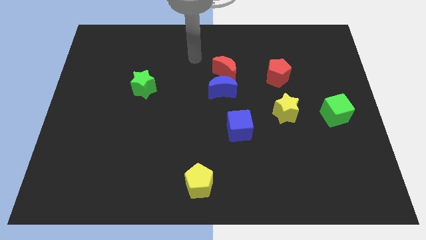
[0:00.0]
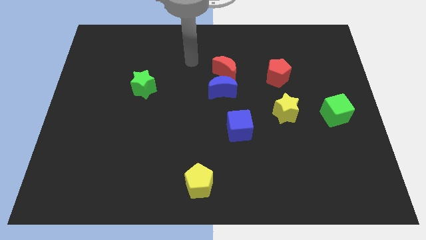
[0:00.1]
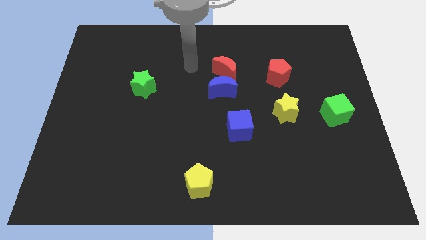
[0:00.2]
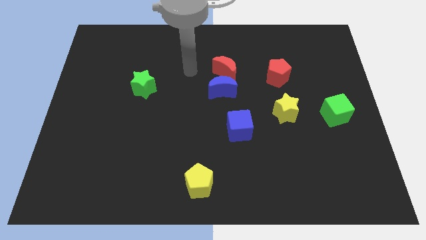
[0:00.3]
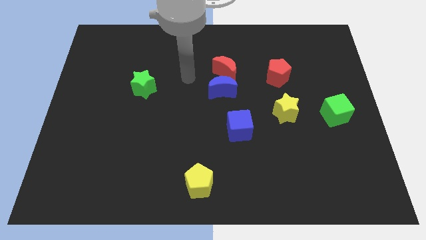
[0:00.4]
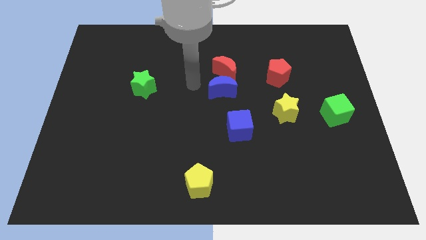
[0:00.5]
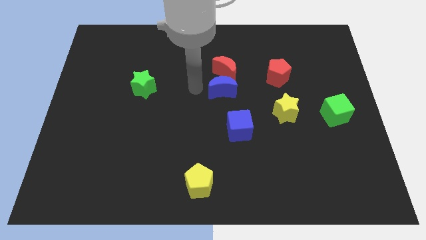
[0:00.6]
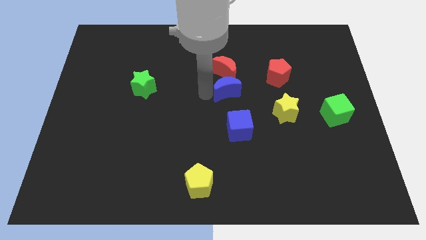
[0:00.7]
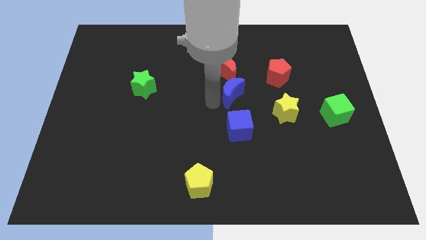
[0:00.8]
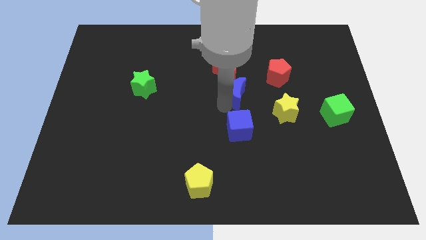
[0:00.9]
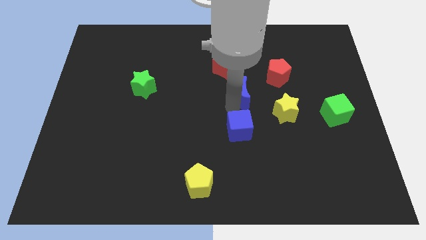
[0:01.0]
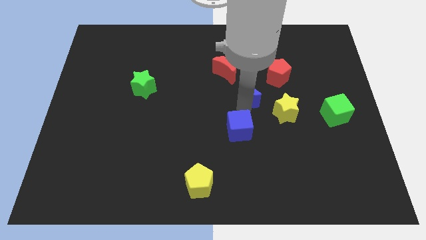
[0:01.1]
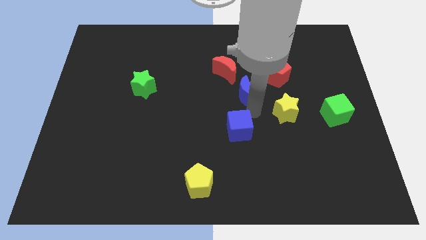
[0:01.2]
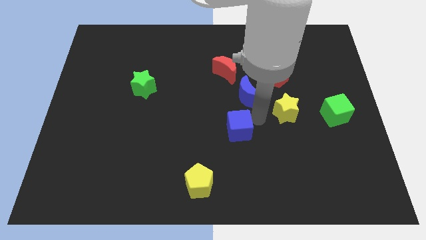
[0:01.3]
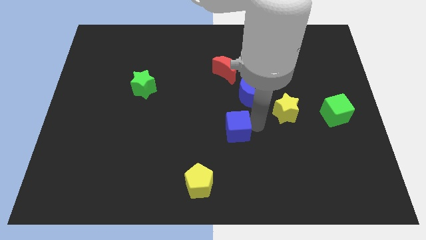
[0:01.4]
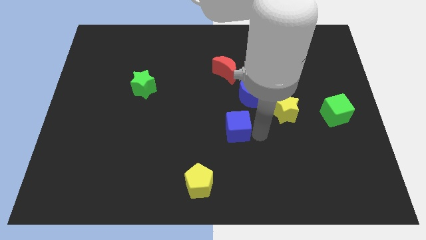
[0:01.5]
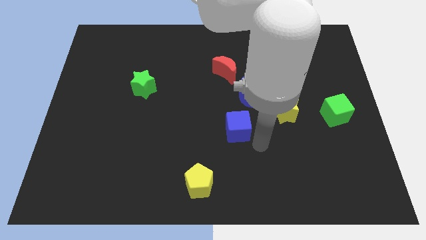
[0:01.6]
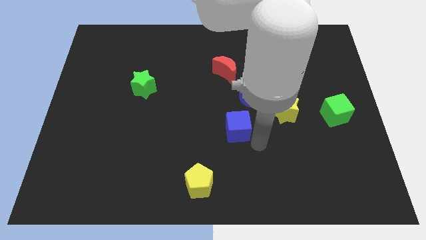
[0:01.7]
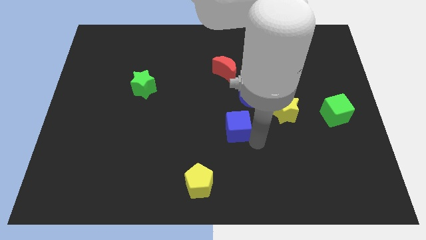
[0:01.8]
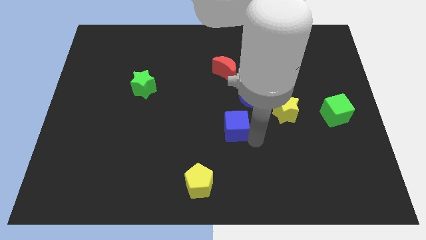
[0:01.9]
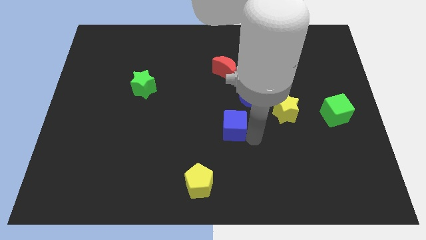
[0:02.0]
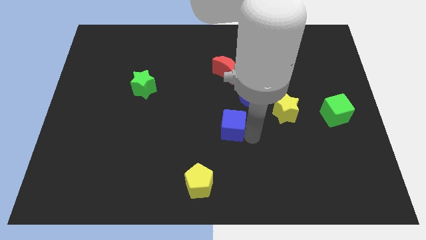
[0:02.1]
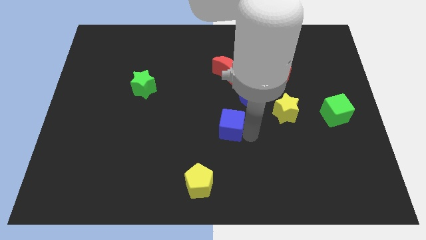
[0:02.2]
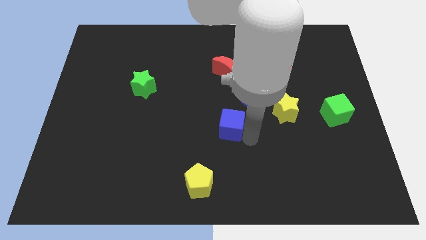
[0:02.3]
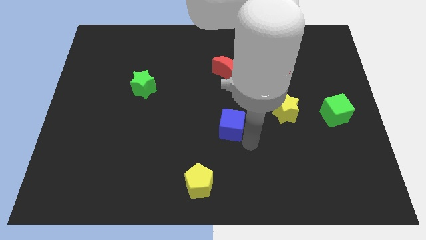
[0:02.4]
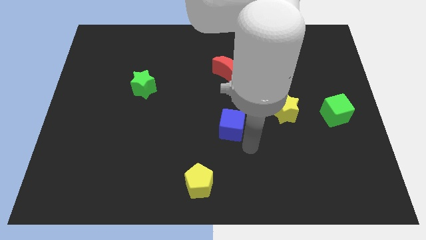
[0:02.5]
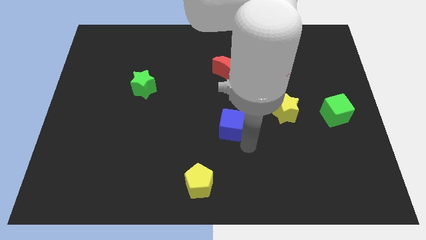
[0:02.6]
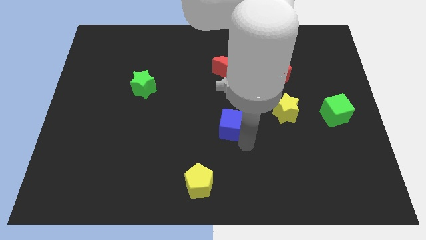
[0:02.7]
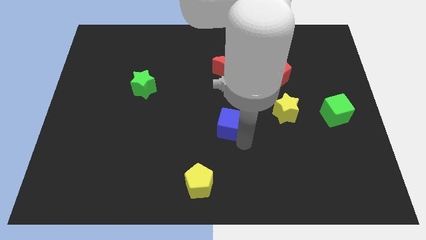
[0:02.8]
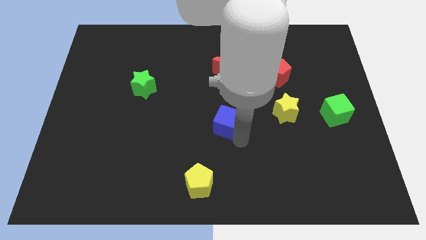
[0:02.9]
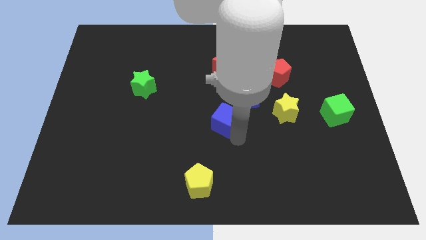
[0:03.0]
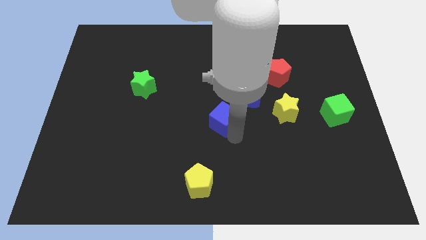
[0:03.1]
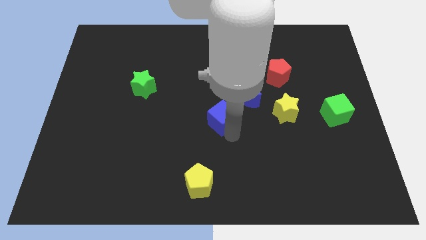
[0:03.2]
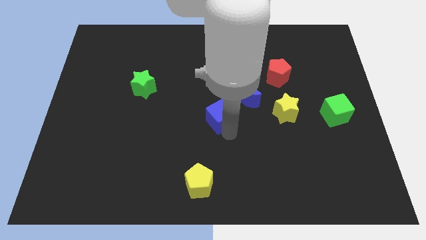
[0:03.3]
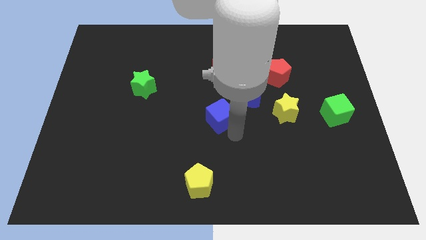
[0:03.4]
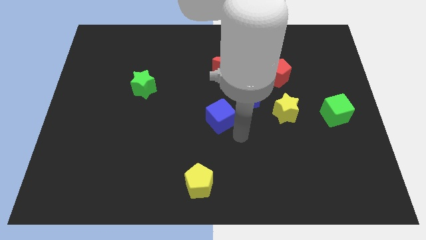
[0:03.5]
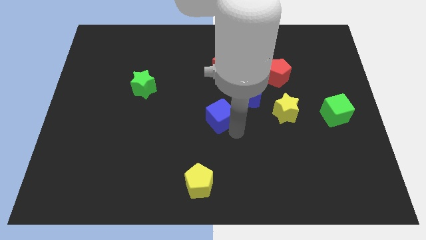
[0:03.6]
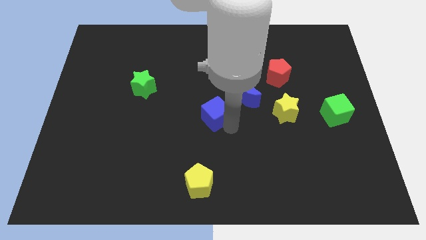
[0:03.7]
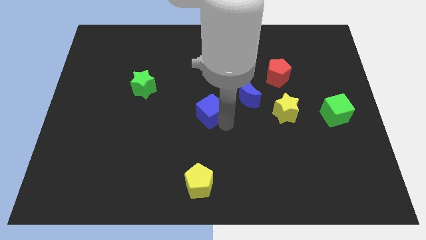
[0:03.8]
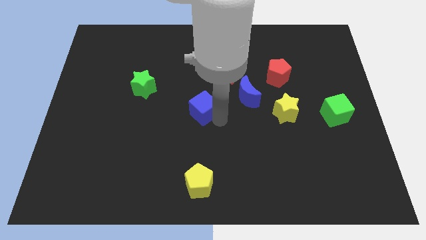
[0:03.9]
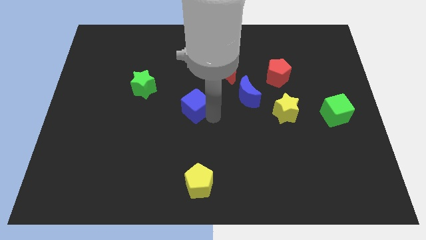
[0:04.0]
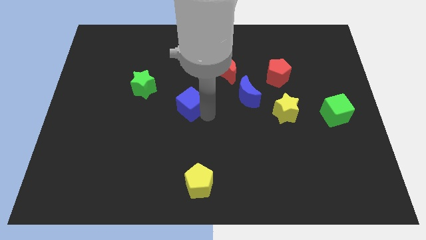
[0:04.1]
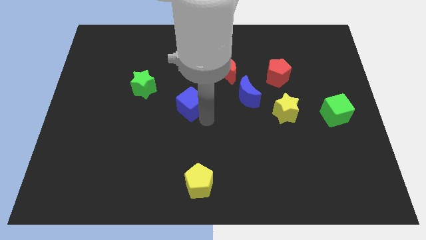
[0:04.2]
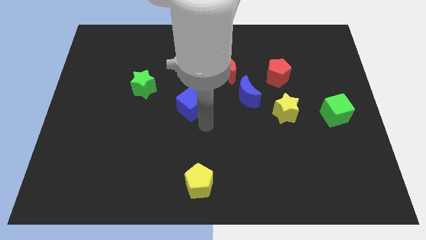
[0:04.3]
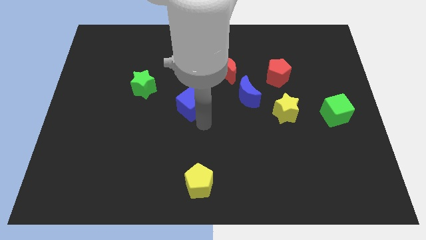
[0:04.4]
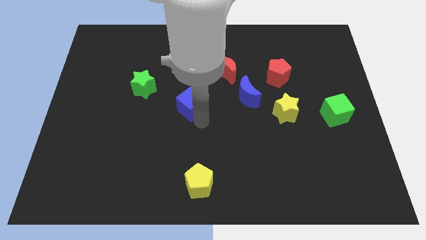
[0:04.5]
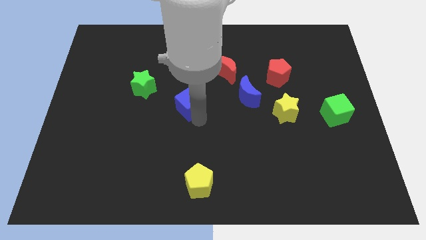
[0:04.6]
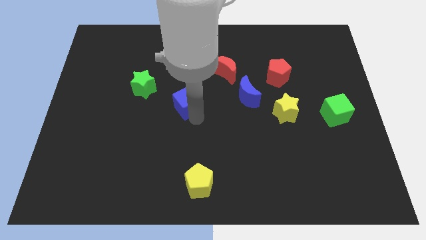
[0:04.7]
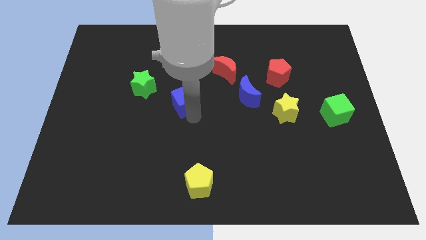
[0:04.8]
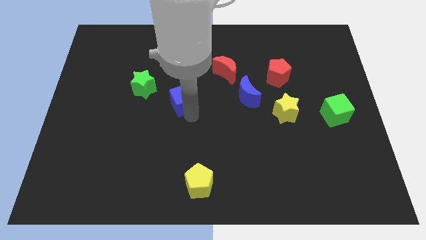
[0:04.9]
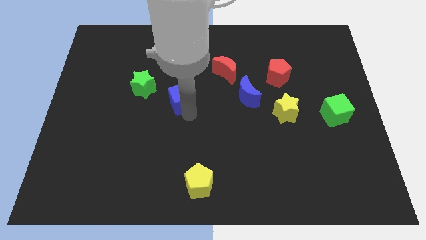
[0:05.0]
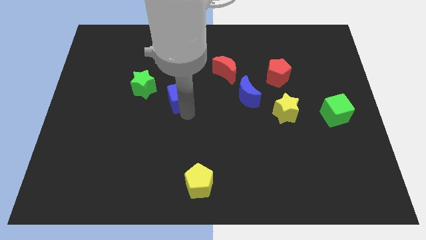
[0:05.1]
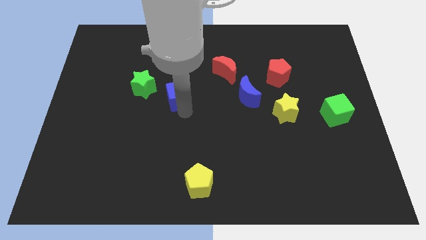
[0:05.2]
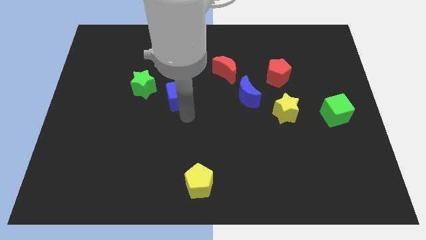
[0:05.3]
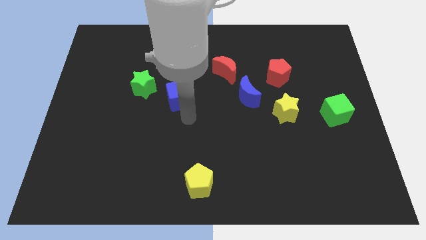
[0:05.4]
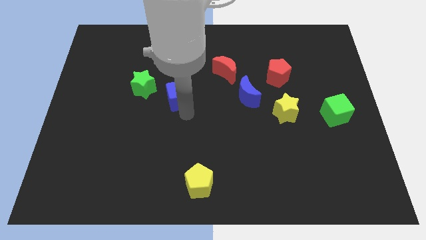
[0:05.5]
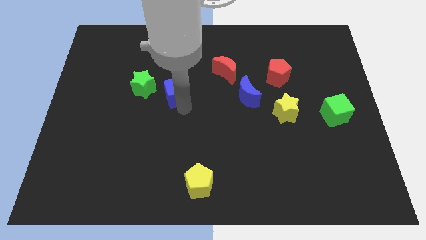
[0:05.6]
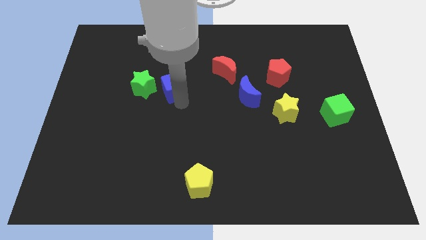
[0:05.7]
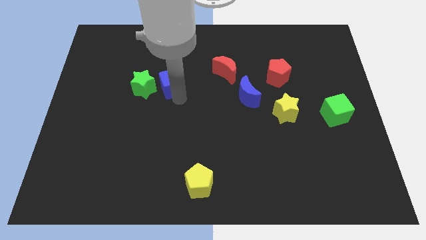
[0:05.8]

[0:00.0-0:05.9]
move the blue cube diagonally up and to the left

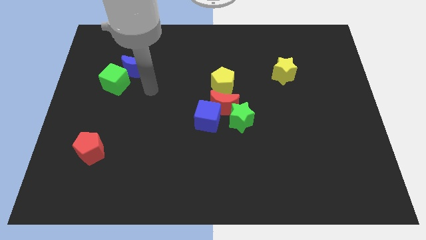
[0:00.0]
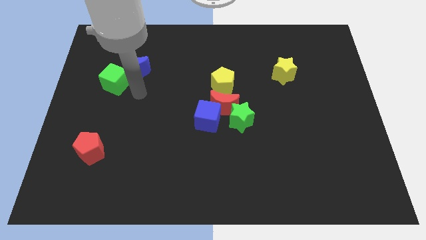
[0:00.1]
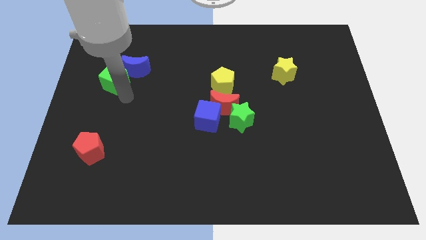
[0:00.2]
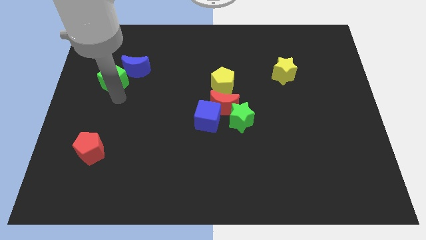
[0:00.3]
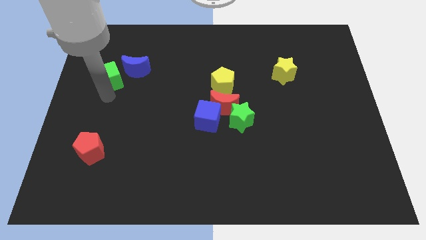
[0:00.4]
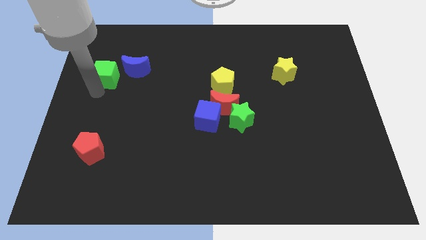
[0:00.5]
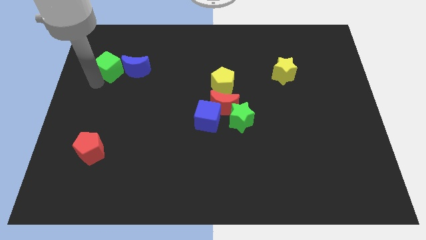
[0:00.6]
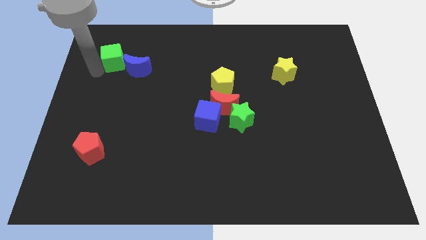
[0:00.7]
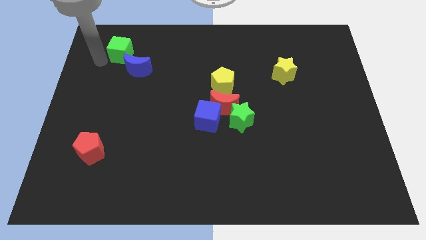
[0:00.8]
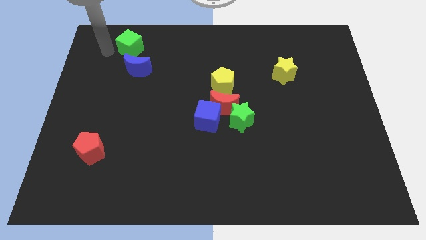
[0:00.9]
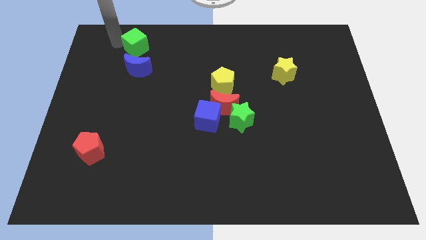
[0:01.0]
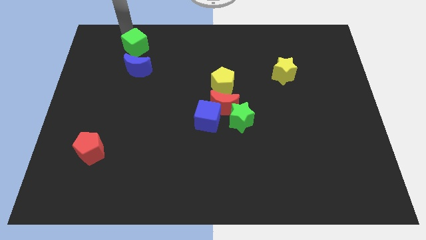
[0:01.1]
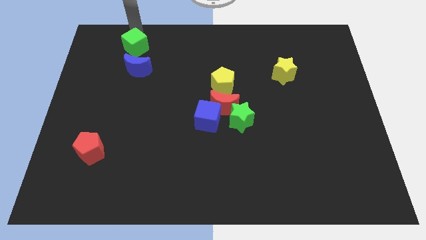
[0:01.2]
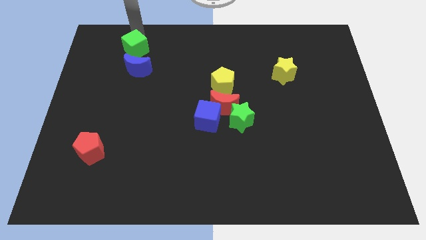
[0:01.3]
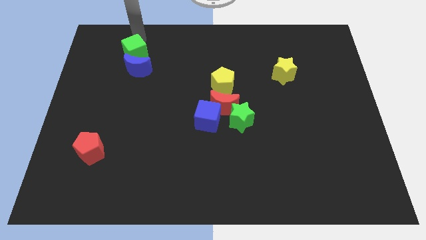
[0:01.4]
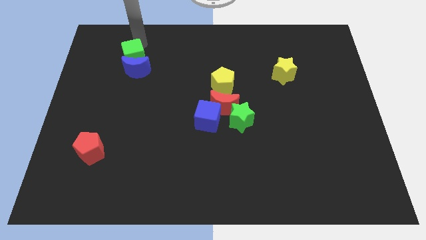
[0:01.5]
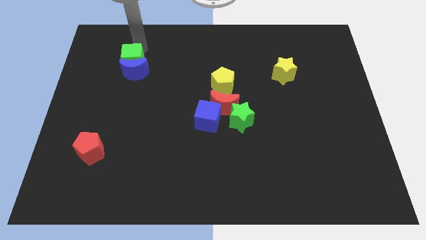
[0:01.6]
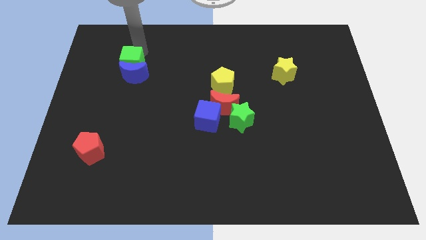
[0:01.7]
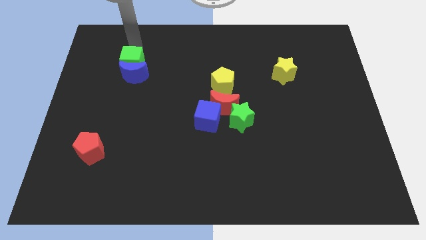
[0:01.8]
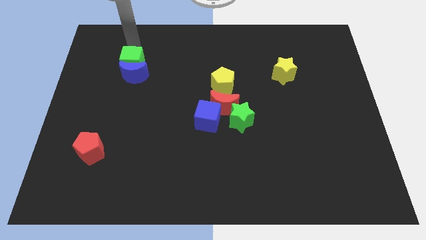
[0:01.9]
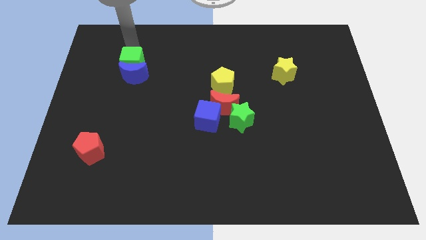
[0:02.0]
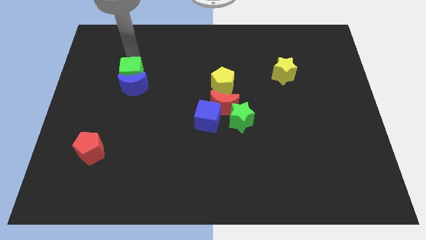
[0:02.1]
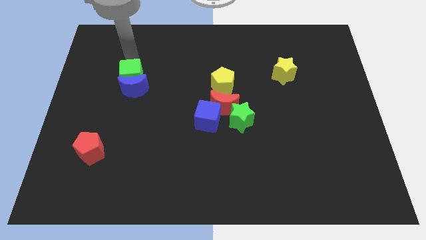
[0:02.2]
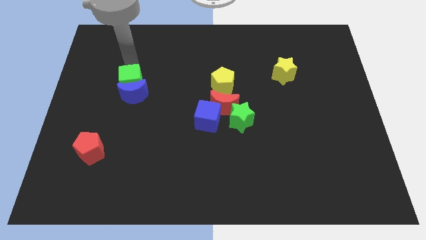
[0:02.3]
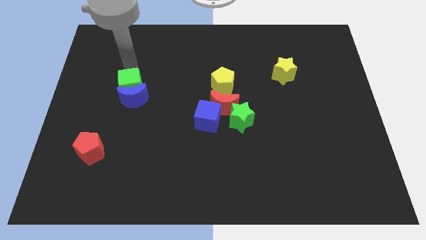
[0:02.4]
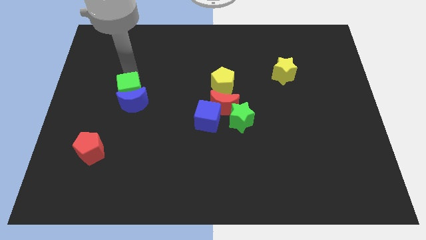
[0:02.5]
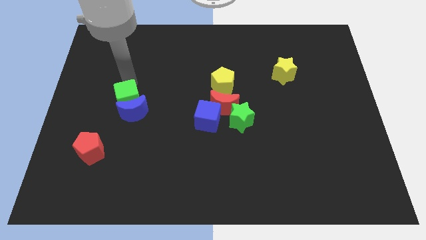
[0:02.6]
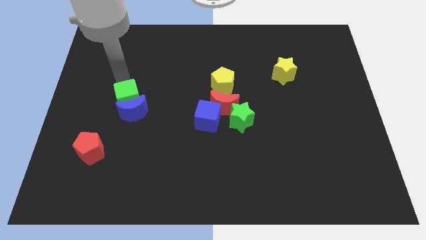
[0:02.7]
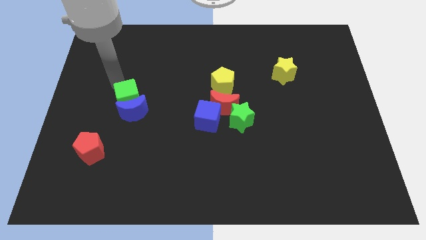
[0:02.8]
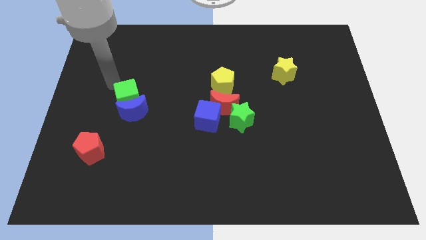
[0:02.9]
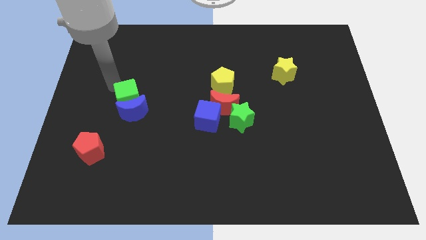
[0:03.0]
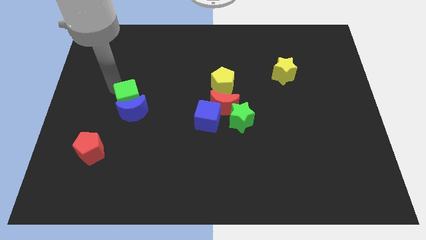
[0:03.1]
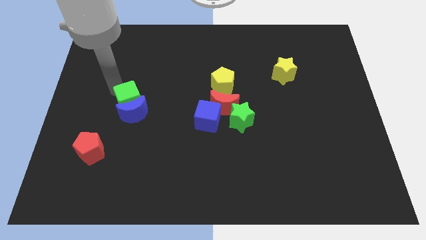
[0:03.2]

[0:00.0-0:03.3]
push the green cube somewhat downwards and right diagonally
